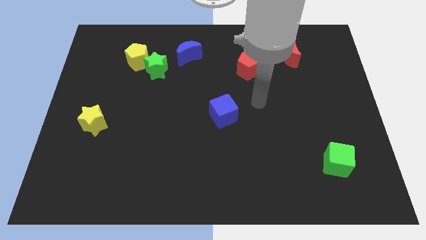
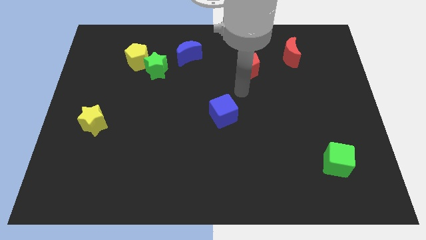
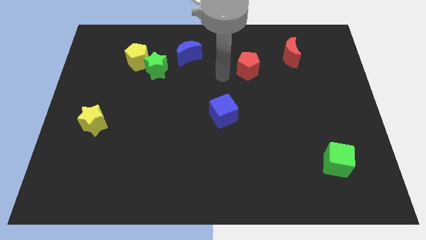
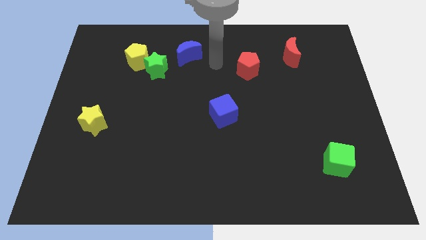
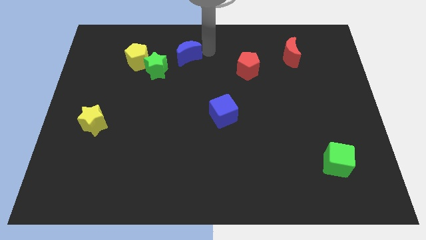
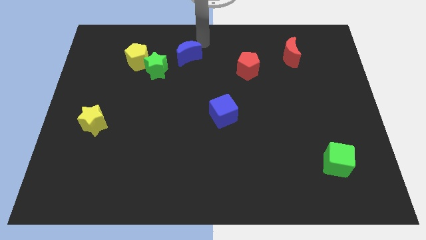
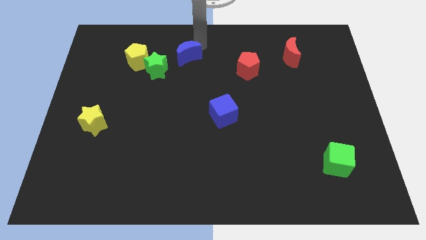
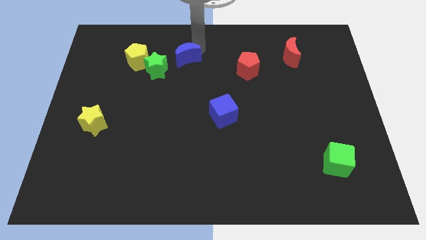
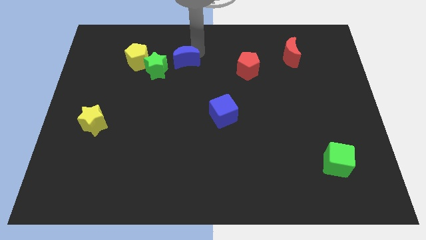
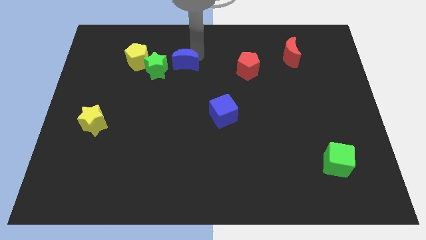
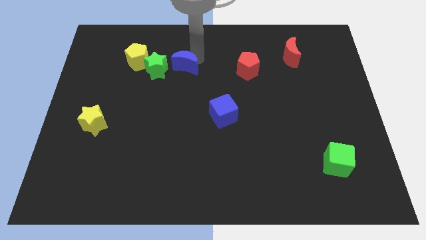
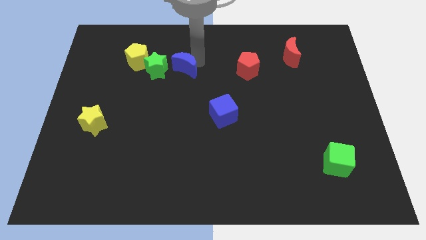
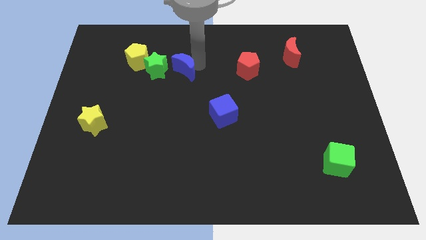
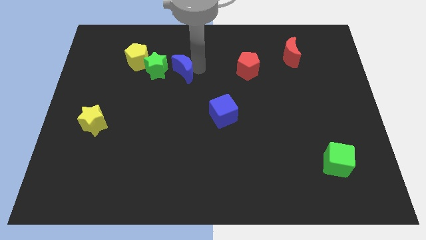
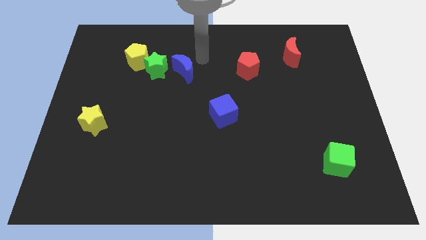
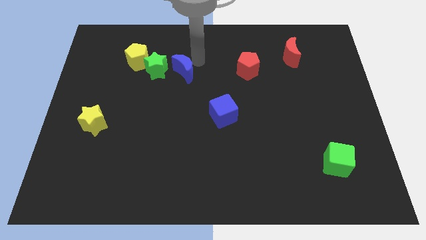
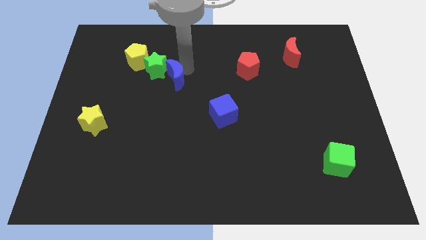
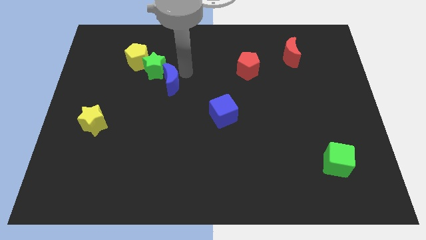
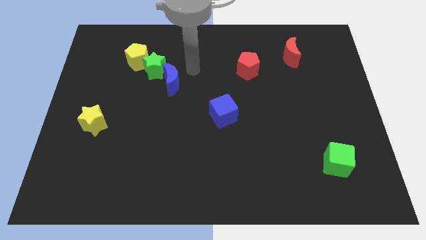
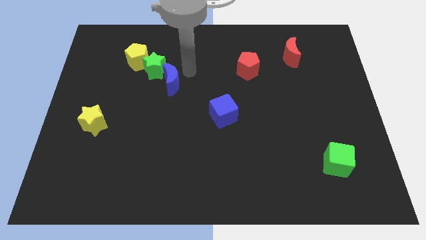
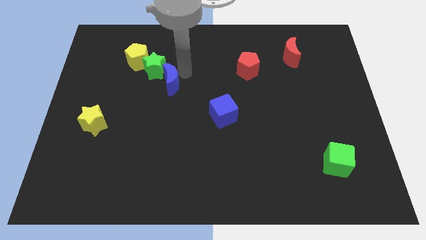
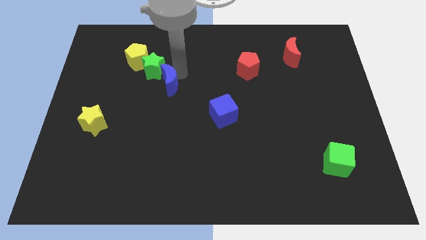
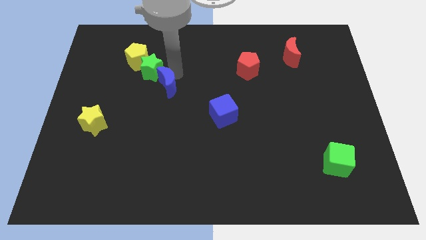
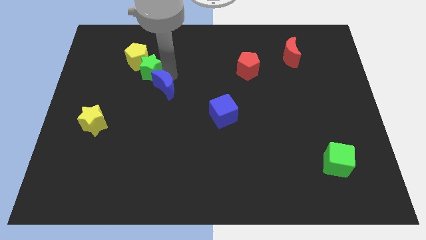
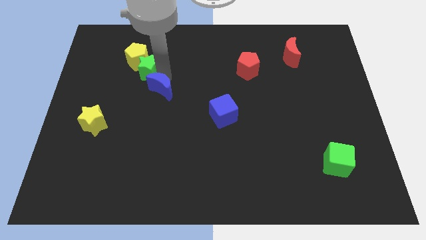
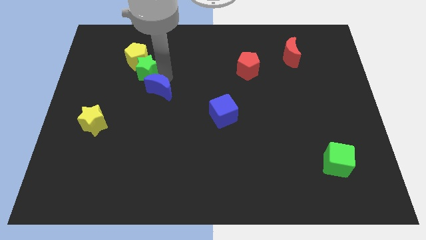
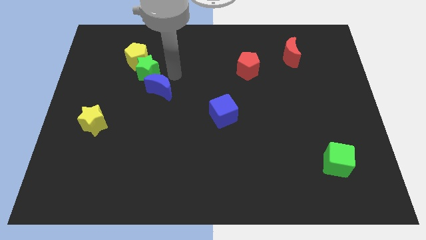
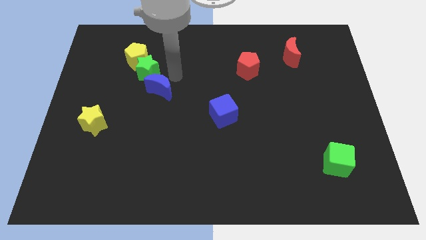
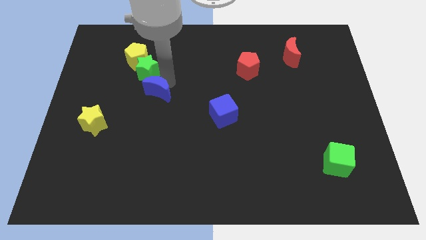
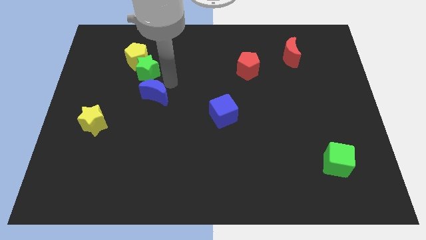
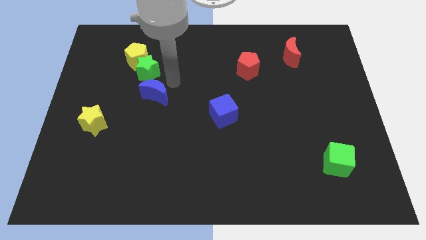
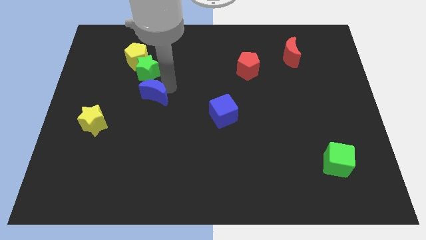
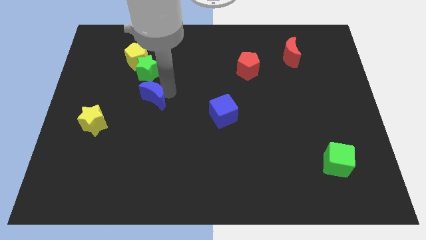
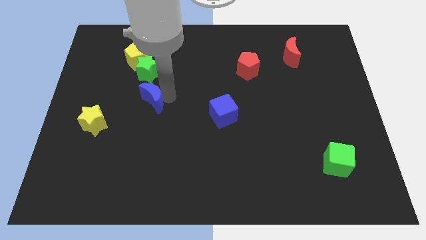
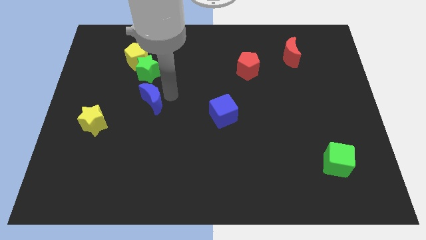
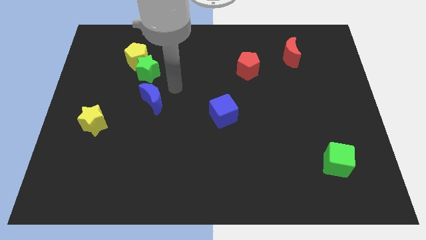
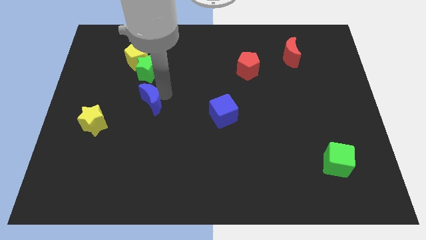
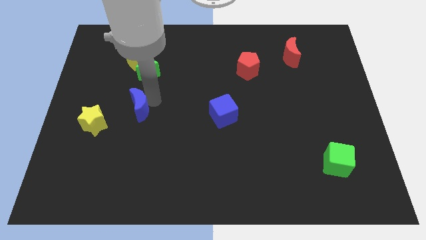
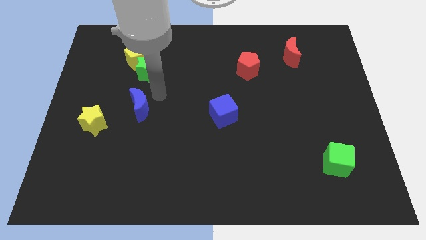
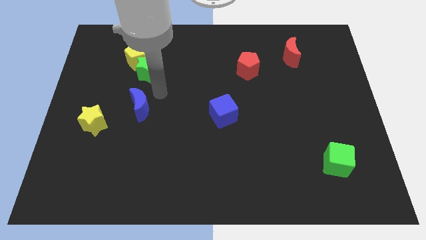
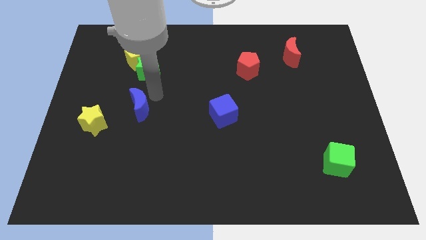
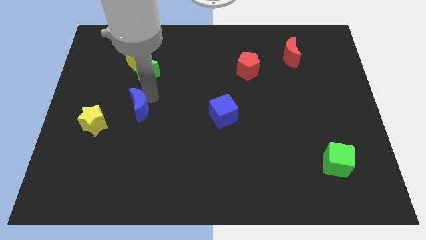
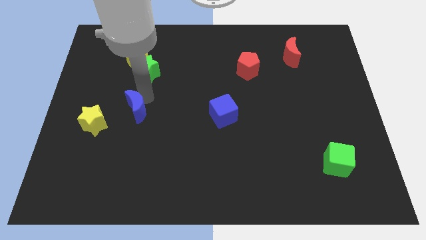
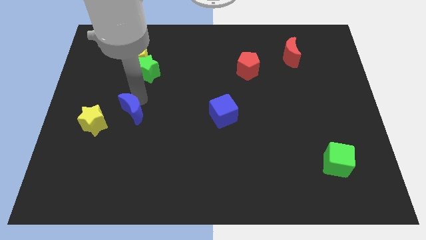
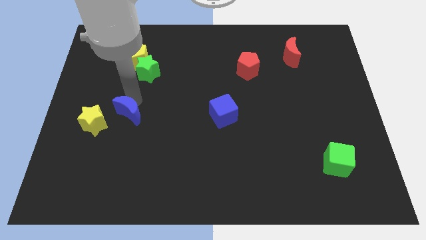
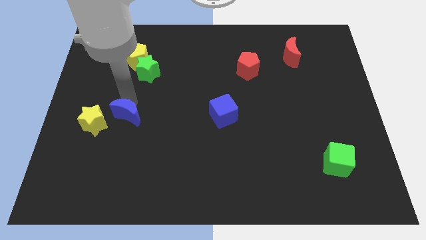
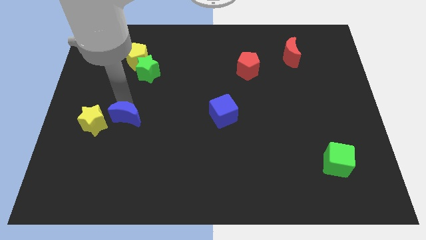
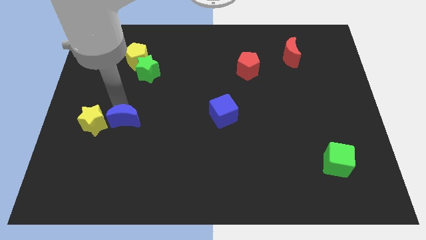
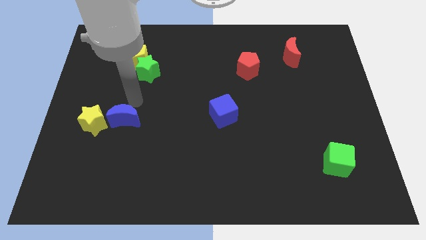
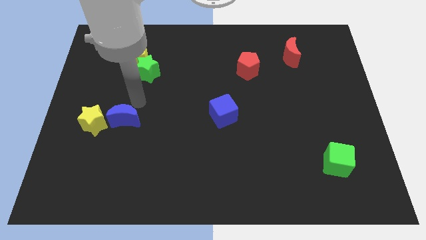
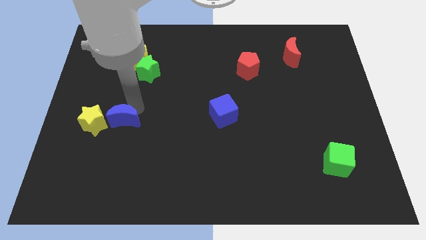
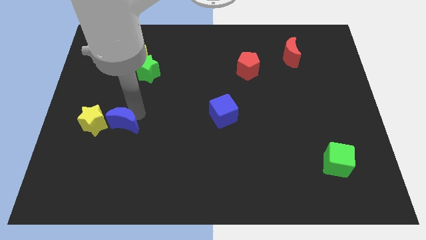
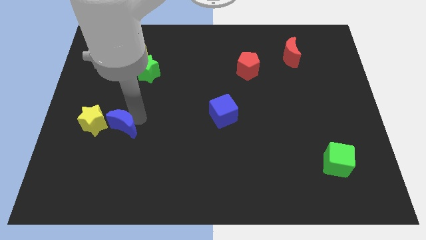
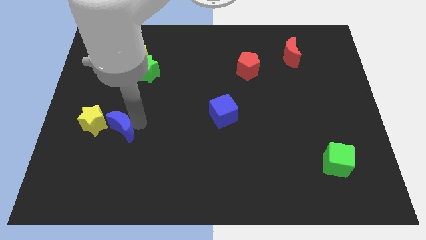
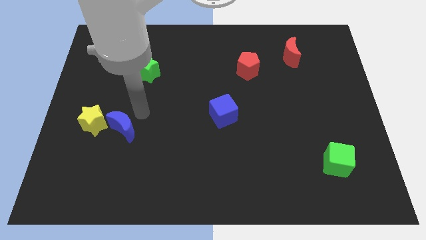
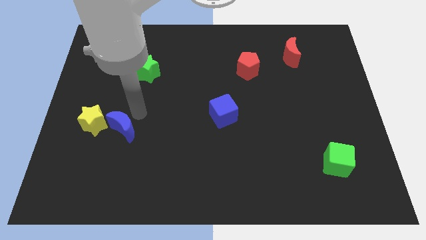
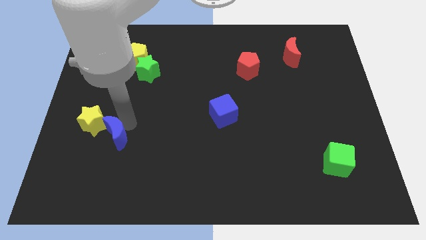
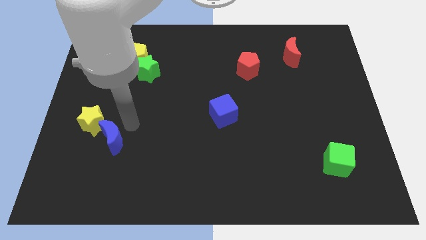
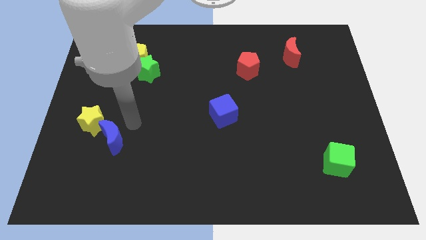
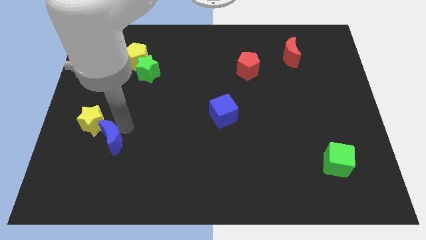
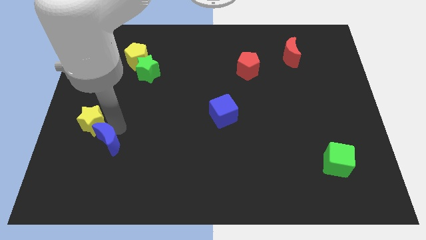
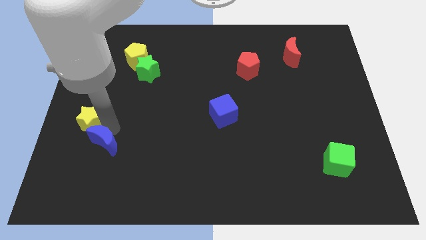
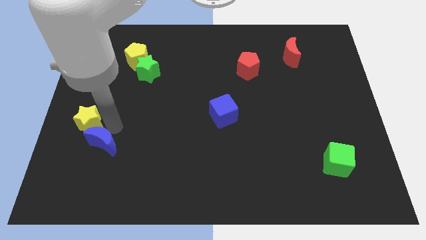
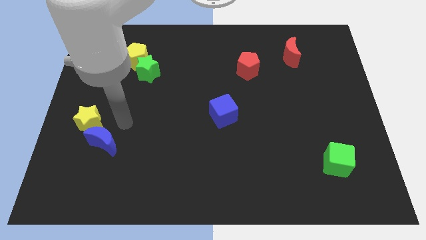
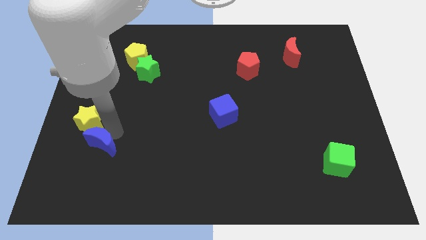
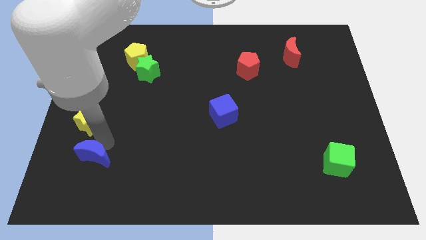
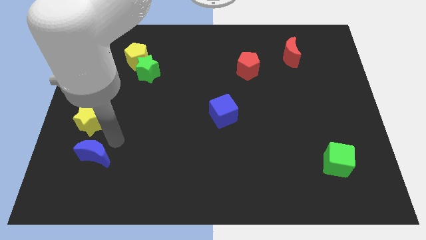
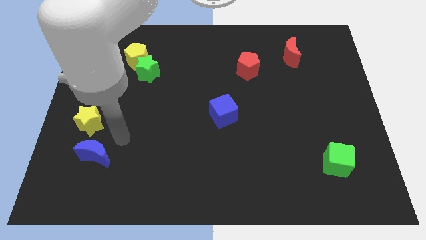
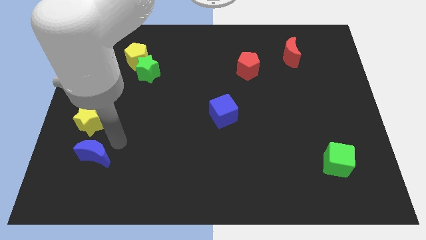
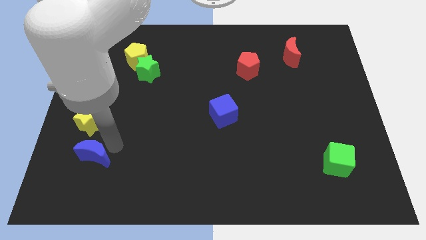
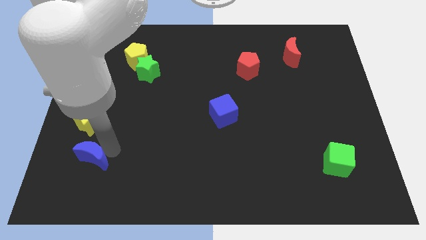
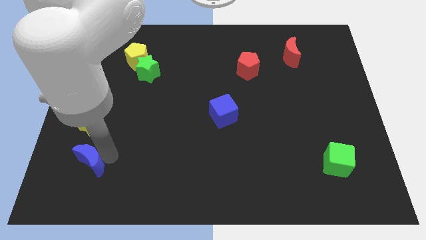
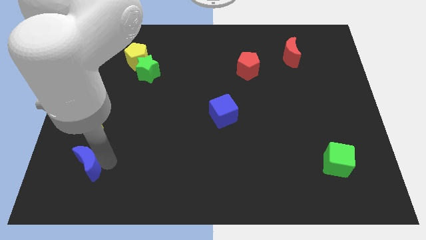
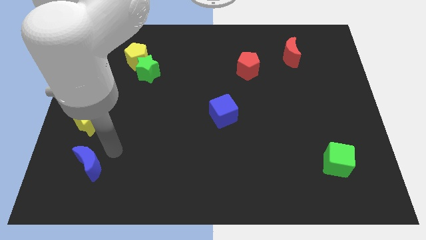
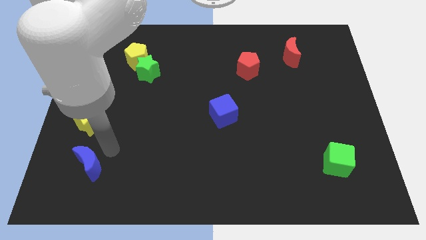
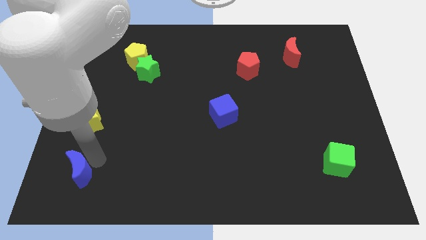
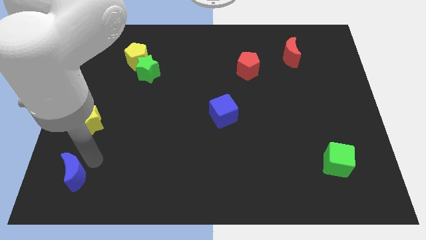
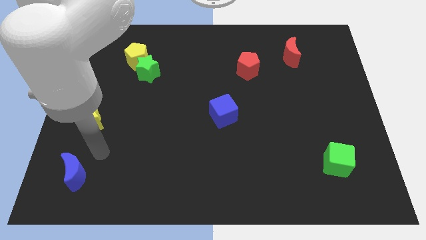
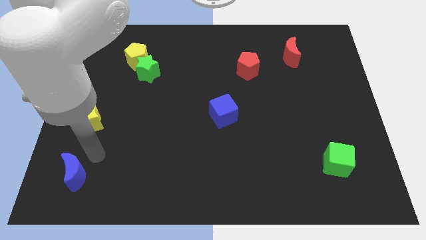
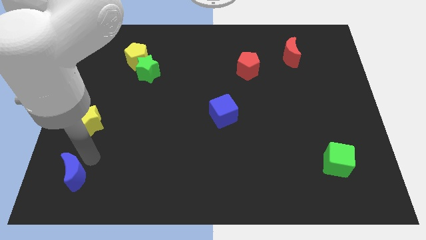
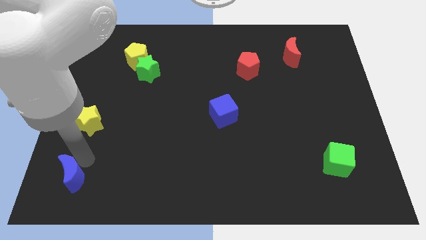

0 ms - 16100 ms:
slide the blue moon to the bottom left corner
